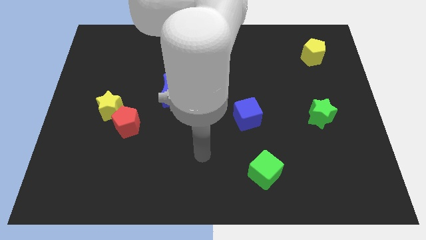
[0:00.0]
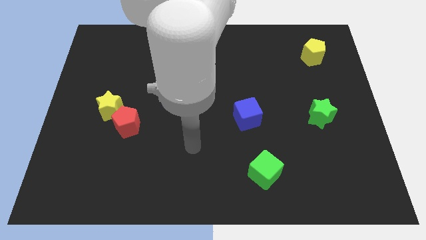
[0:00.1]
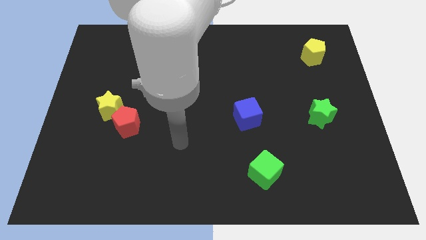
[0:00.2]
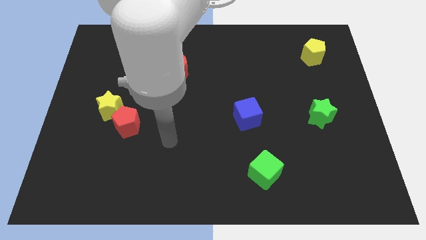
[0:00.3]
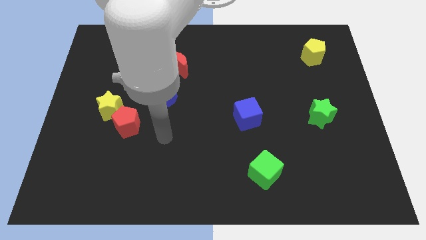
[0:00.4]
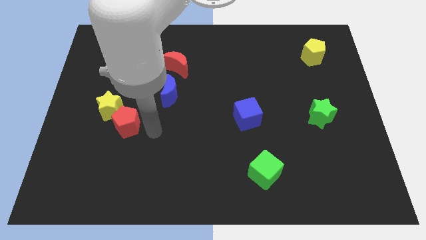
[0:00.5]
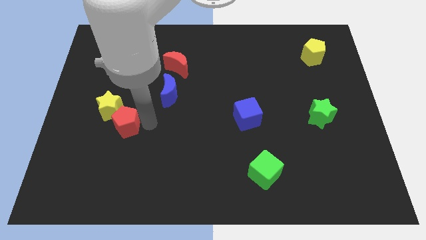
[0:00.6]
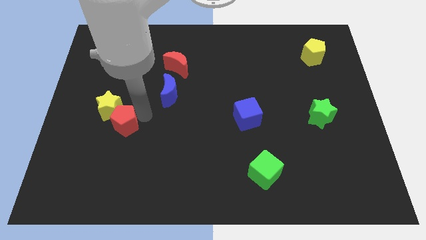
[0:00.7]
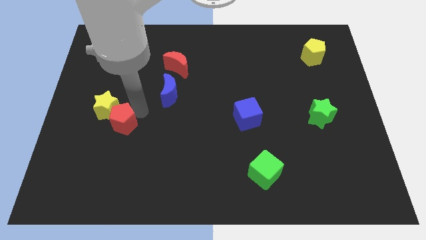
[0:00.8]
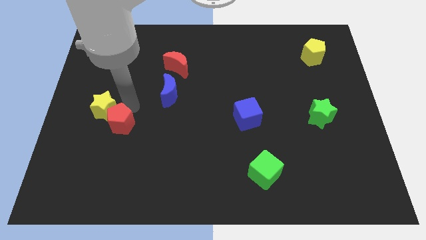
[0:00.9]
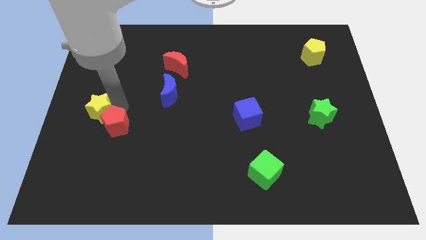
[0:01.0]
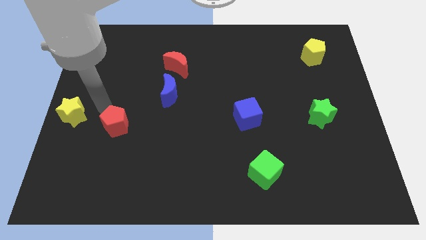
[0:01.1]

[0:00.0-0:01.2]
pull the red pentagon apart from the yellow star

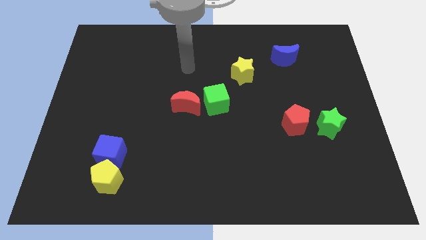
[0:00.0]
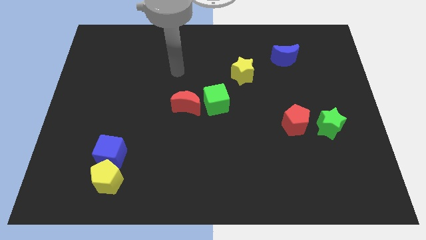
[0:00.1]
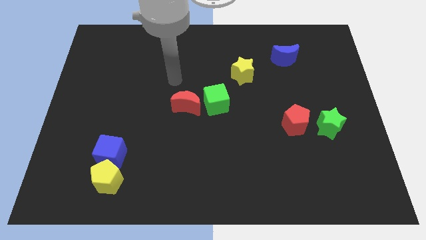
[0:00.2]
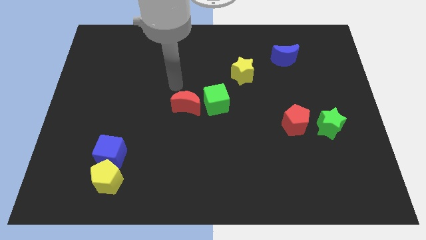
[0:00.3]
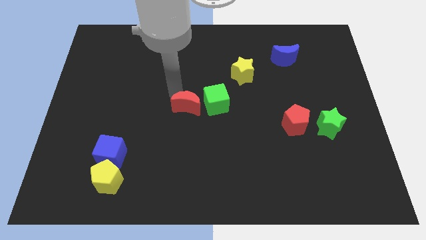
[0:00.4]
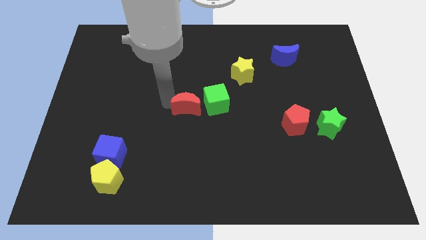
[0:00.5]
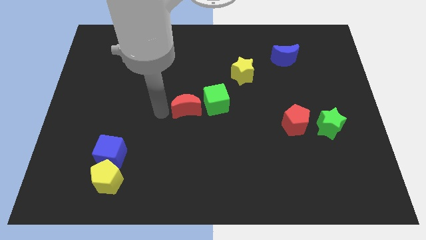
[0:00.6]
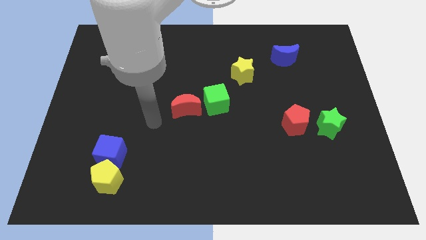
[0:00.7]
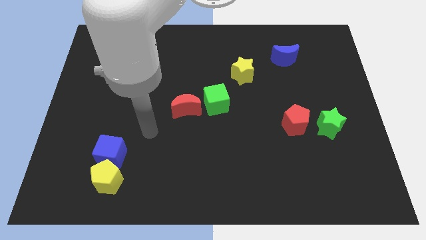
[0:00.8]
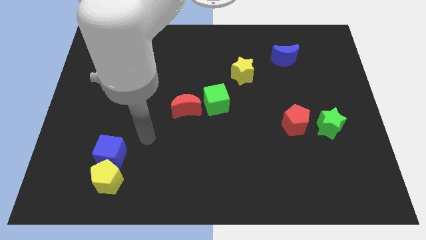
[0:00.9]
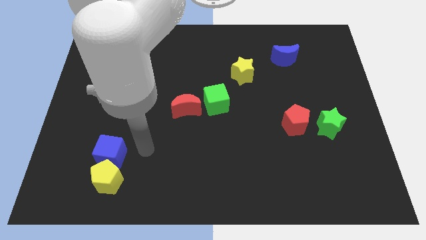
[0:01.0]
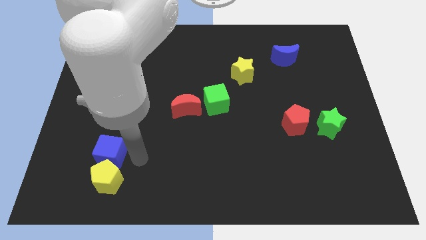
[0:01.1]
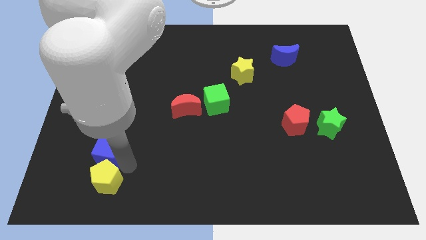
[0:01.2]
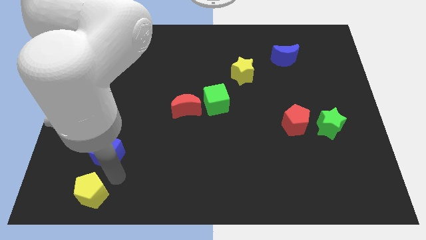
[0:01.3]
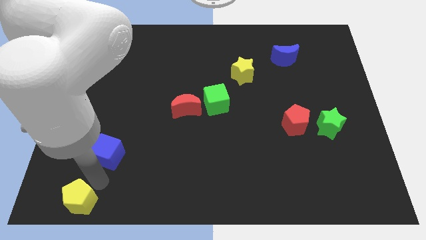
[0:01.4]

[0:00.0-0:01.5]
move the blue cube away from the yellow pentagon

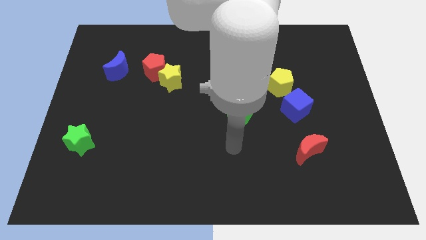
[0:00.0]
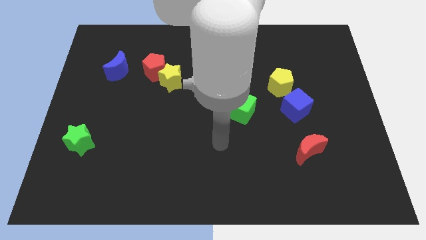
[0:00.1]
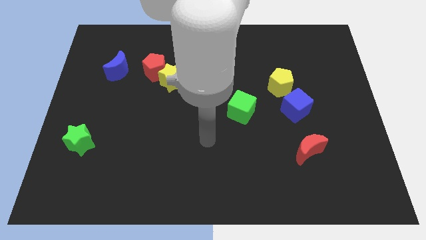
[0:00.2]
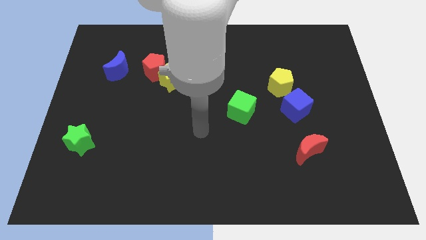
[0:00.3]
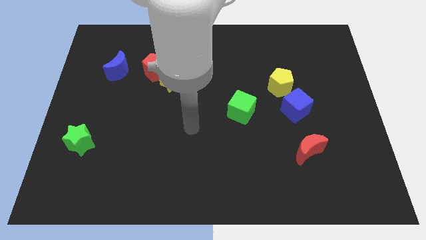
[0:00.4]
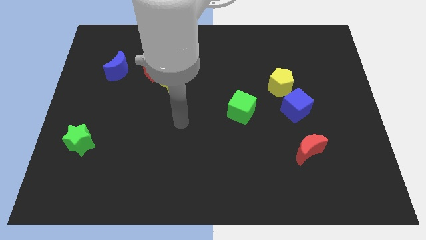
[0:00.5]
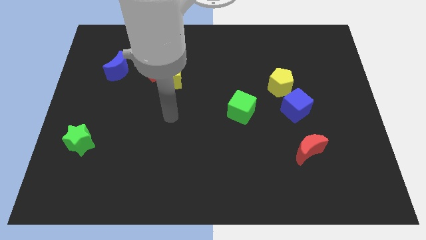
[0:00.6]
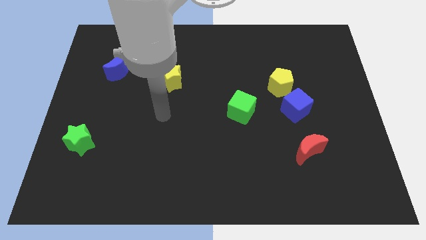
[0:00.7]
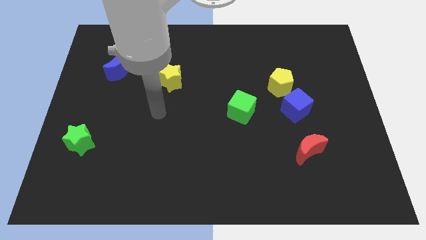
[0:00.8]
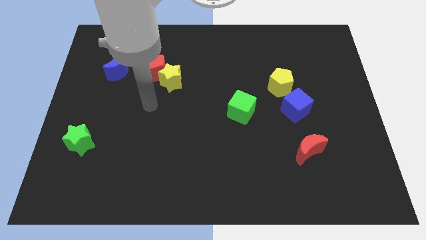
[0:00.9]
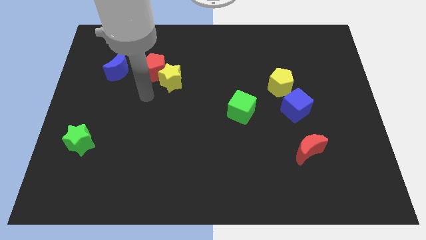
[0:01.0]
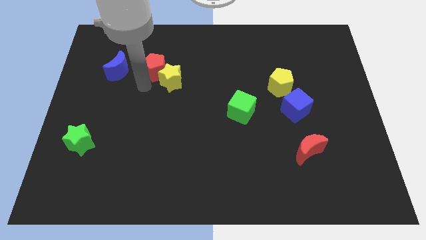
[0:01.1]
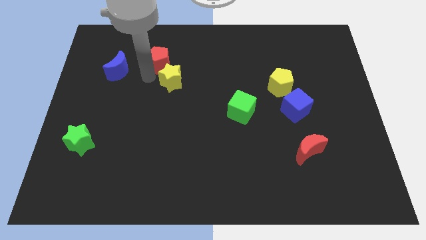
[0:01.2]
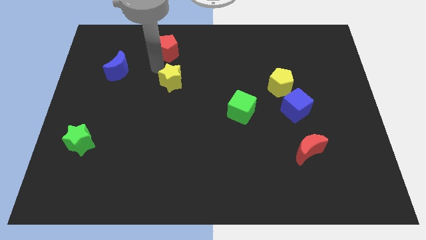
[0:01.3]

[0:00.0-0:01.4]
move the yellow star away from the red pentagon

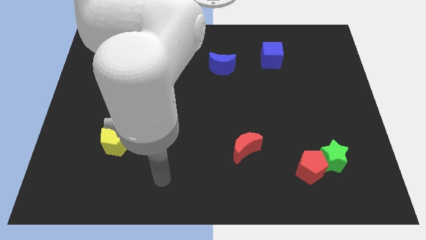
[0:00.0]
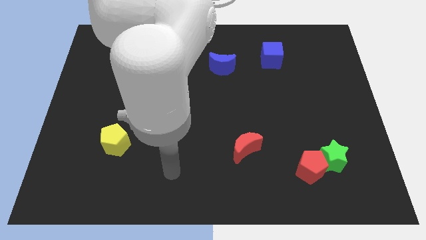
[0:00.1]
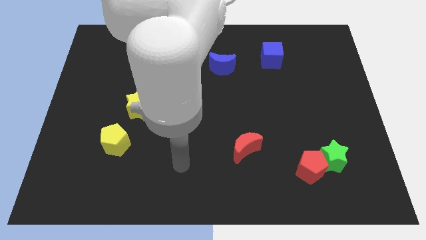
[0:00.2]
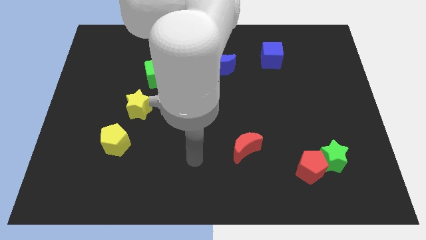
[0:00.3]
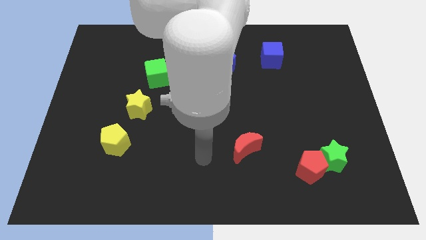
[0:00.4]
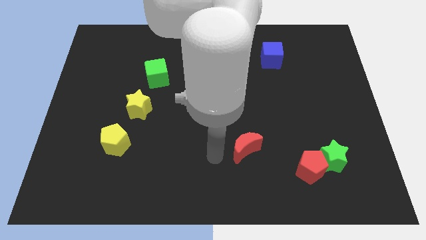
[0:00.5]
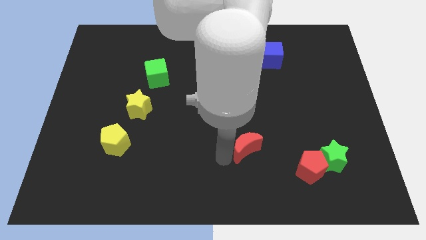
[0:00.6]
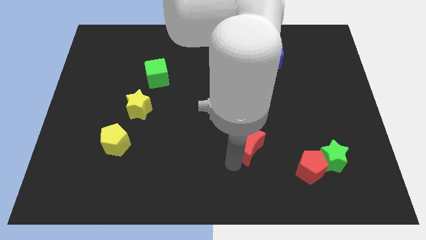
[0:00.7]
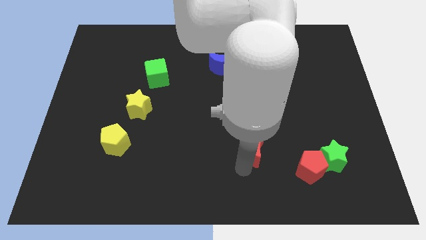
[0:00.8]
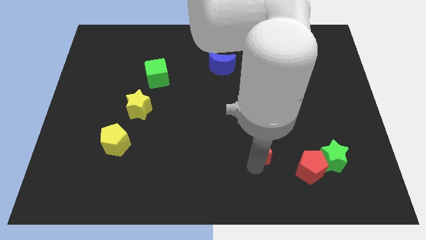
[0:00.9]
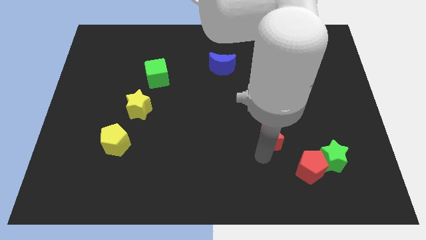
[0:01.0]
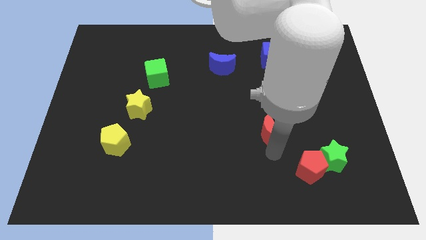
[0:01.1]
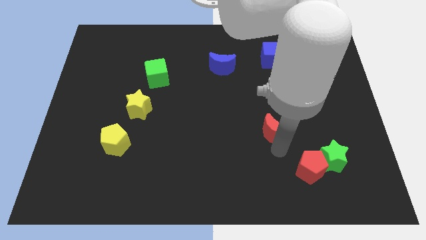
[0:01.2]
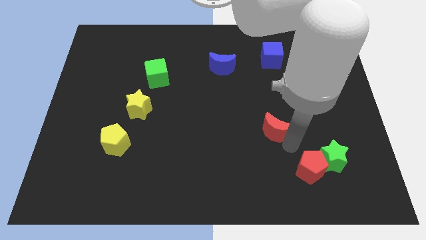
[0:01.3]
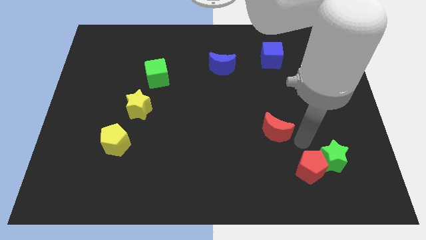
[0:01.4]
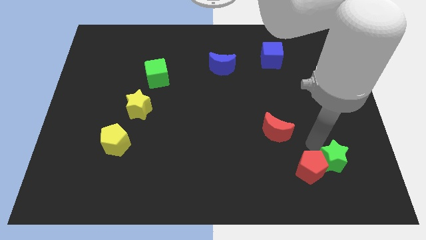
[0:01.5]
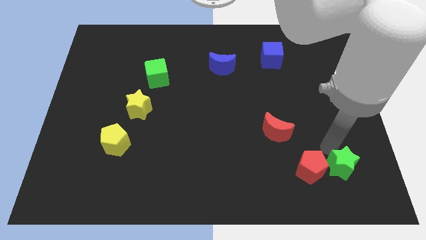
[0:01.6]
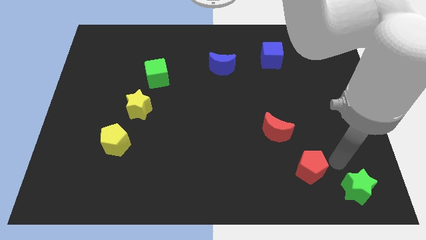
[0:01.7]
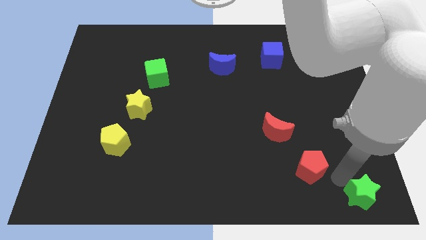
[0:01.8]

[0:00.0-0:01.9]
separate the red pentagon from the green star

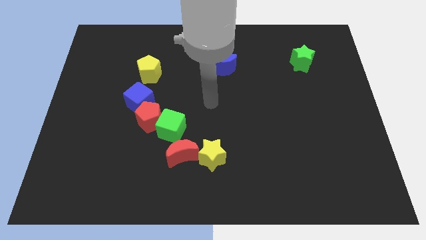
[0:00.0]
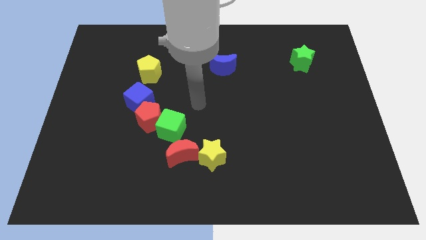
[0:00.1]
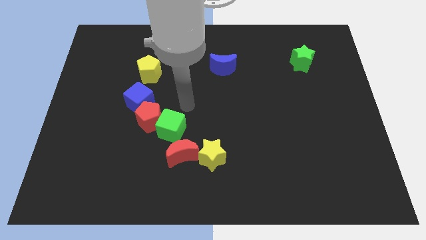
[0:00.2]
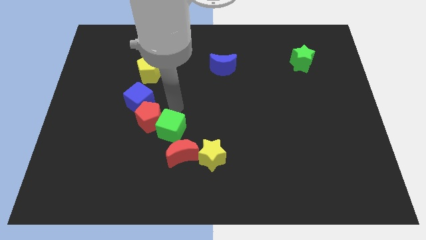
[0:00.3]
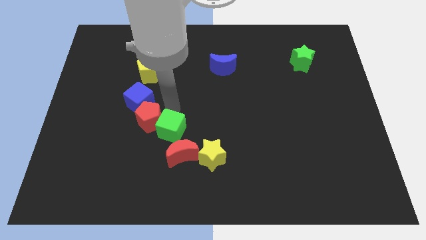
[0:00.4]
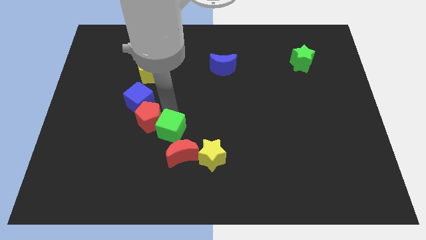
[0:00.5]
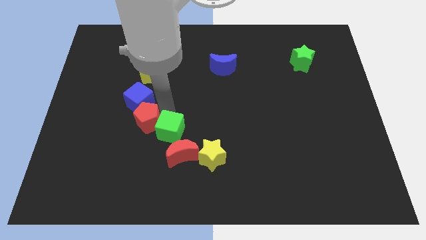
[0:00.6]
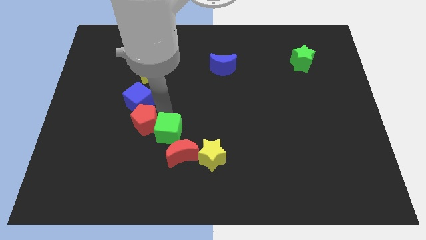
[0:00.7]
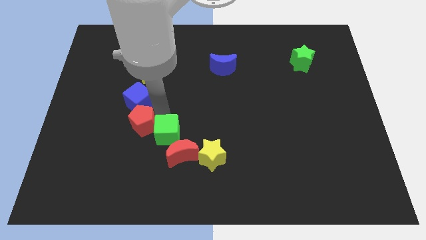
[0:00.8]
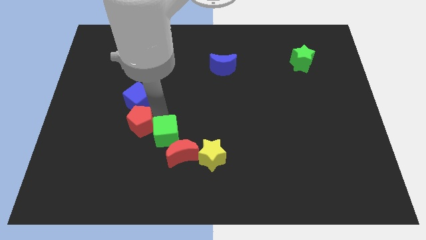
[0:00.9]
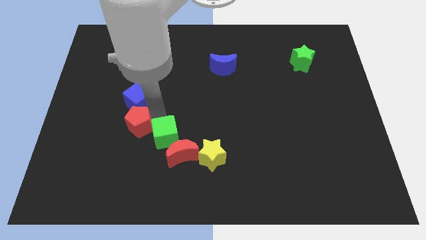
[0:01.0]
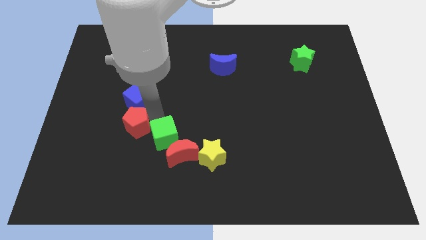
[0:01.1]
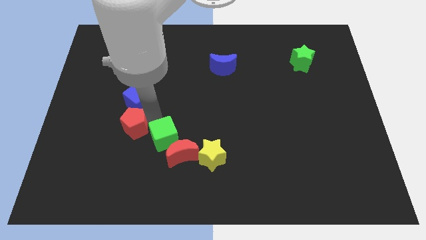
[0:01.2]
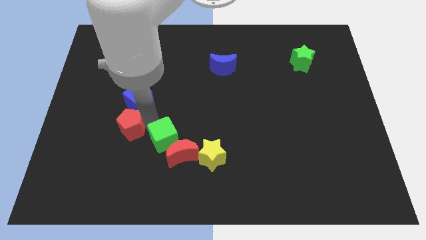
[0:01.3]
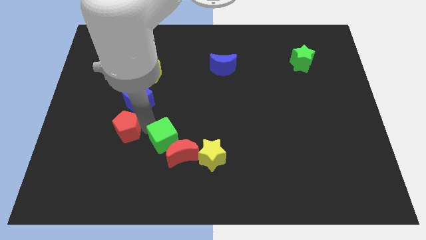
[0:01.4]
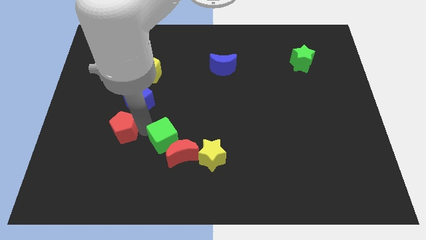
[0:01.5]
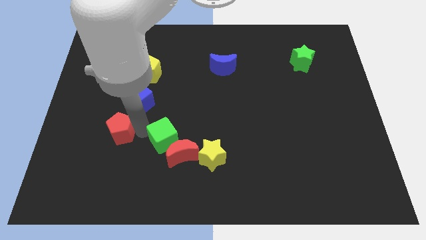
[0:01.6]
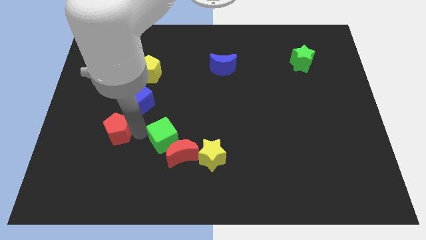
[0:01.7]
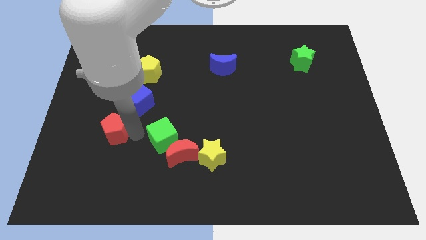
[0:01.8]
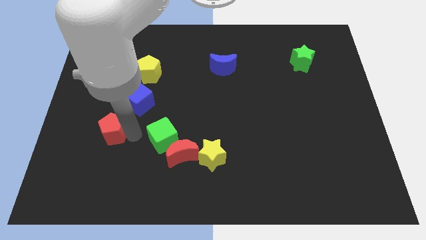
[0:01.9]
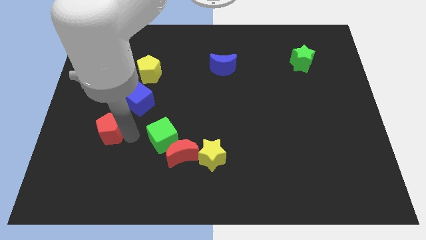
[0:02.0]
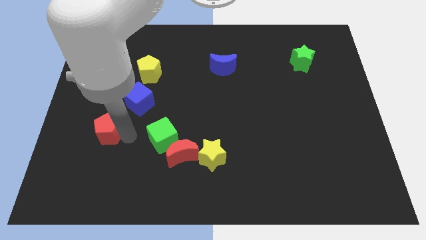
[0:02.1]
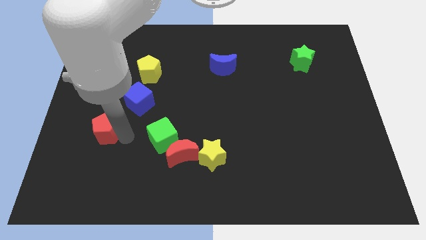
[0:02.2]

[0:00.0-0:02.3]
separate the red pentagon from the blue cube and green cube

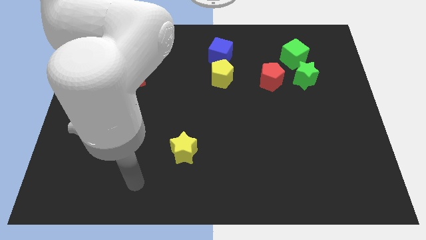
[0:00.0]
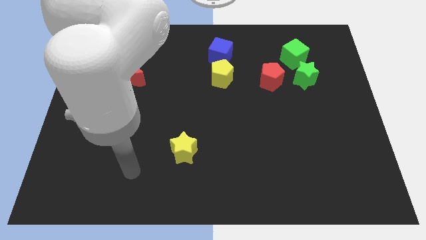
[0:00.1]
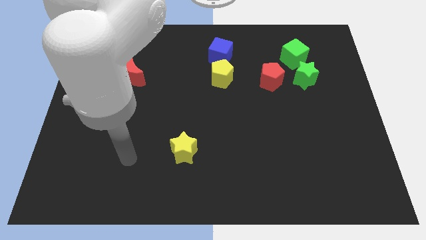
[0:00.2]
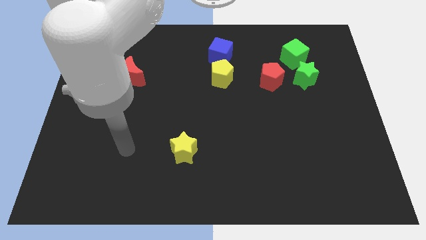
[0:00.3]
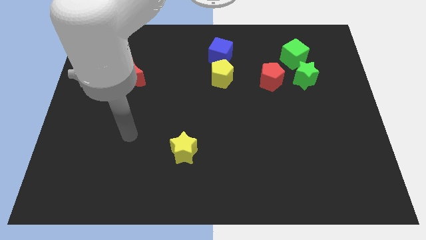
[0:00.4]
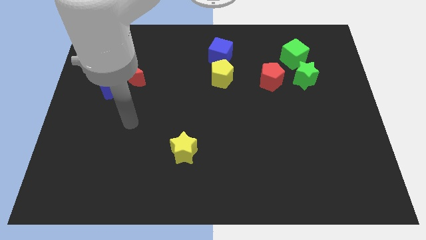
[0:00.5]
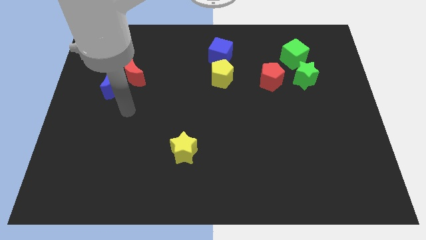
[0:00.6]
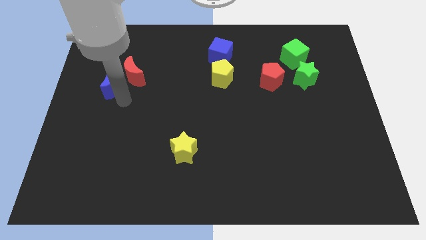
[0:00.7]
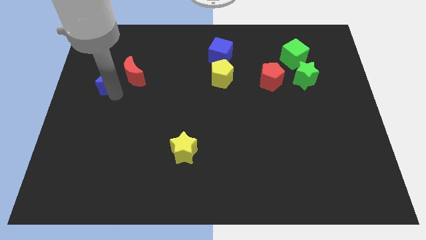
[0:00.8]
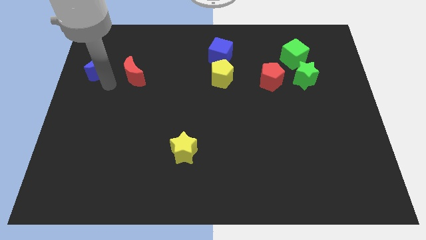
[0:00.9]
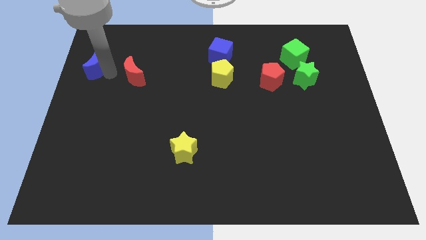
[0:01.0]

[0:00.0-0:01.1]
move the red moon away from the blue moon
